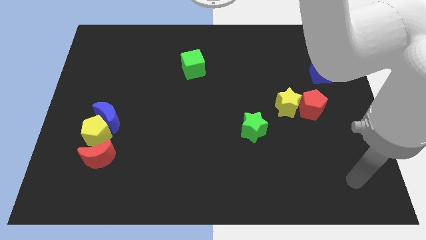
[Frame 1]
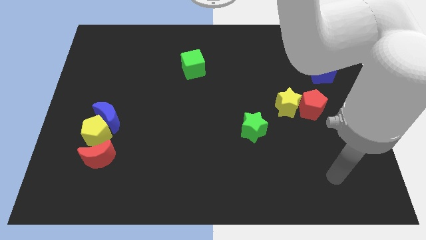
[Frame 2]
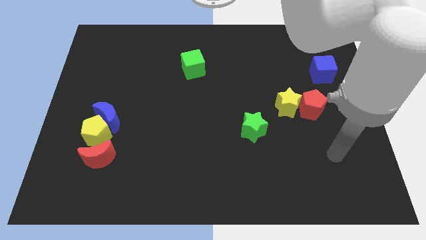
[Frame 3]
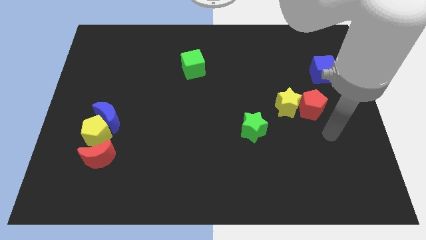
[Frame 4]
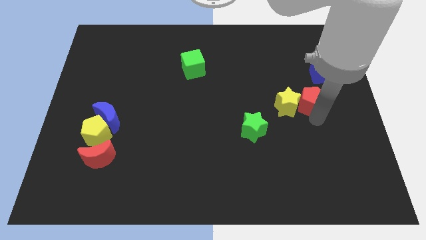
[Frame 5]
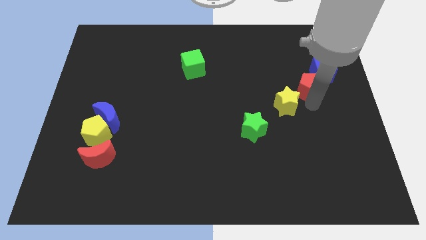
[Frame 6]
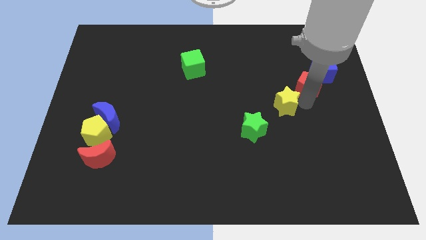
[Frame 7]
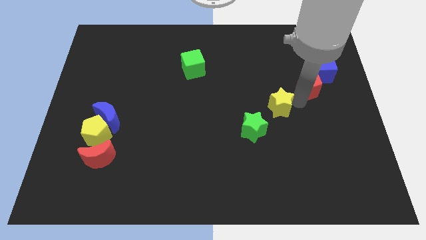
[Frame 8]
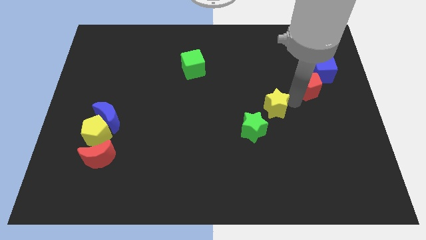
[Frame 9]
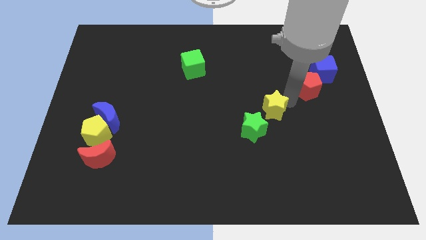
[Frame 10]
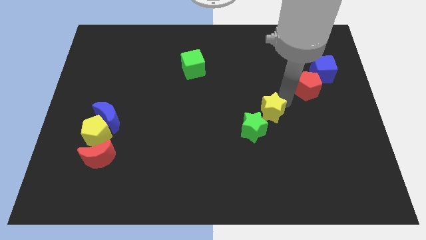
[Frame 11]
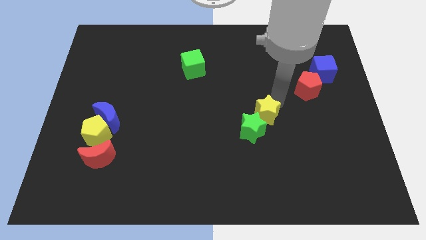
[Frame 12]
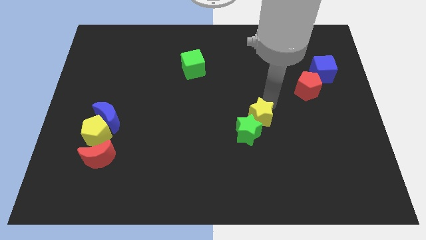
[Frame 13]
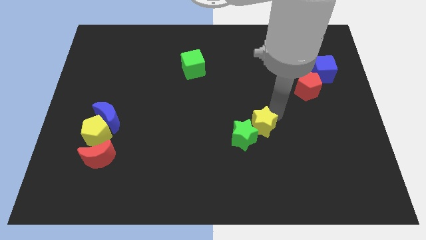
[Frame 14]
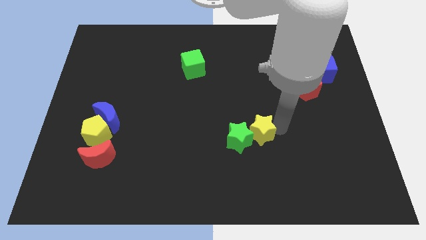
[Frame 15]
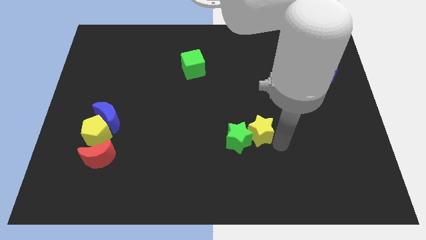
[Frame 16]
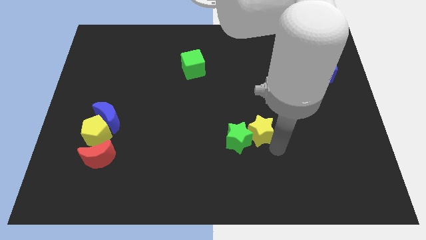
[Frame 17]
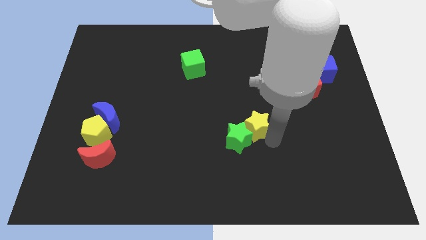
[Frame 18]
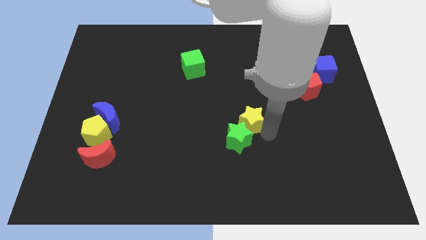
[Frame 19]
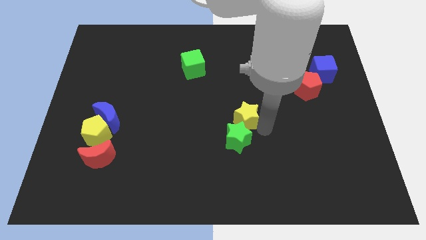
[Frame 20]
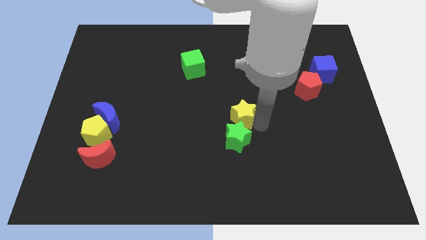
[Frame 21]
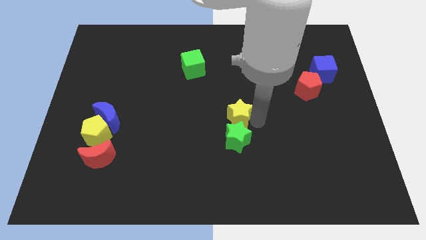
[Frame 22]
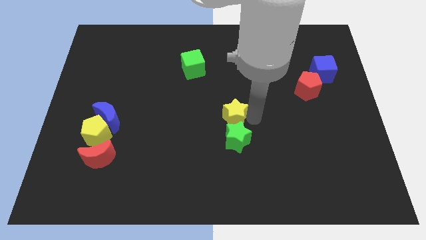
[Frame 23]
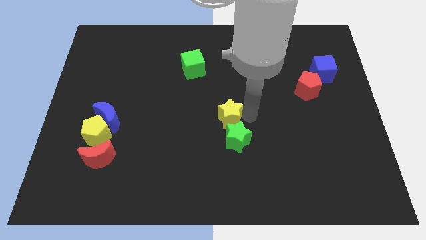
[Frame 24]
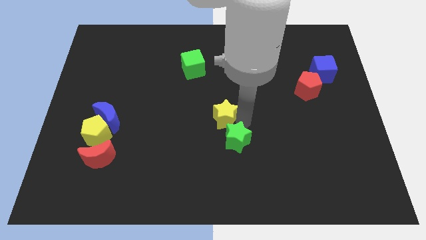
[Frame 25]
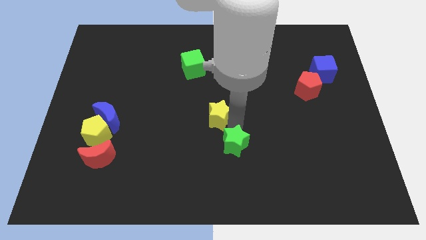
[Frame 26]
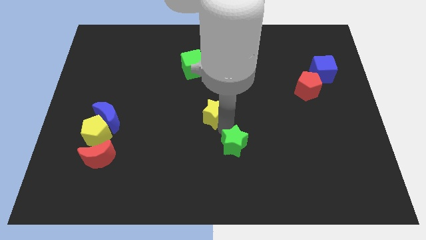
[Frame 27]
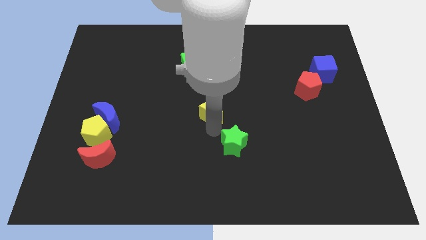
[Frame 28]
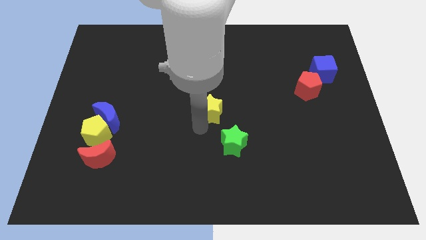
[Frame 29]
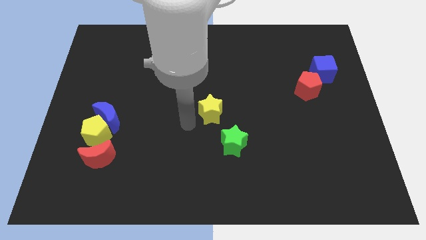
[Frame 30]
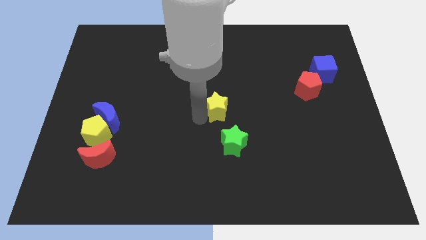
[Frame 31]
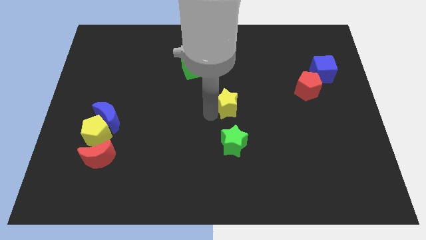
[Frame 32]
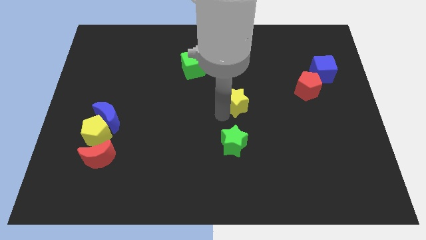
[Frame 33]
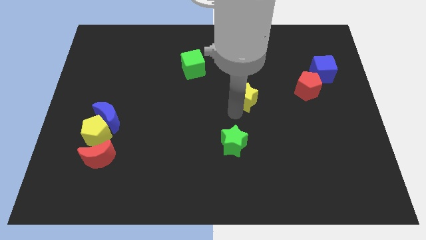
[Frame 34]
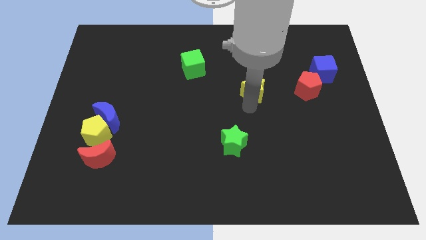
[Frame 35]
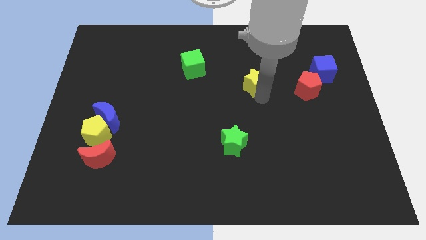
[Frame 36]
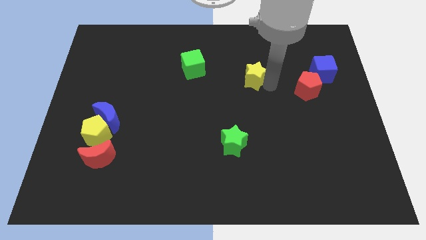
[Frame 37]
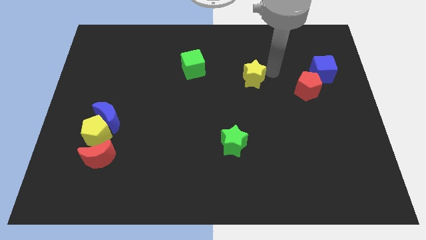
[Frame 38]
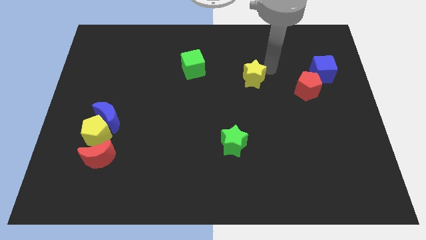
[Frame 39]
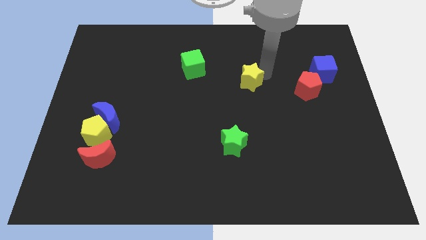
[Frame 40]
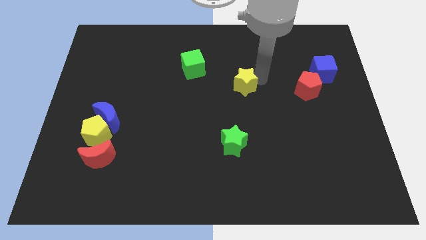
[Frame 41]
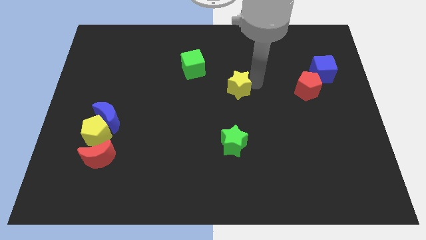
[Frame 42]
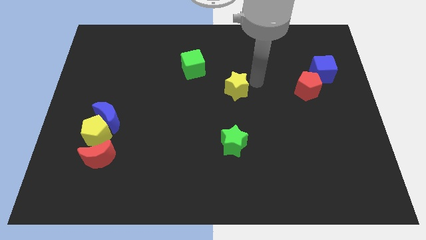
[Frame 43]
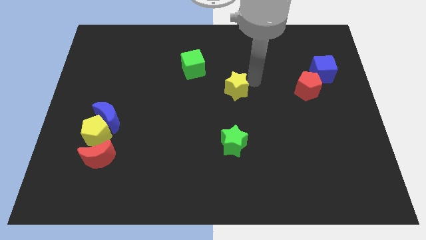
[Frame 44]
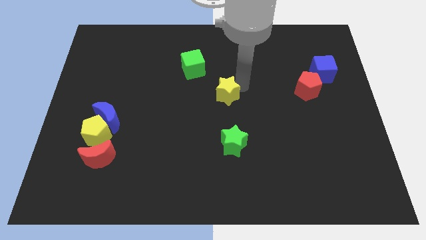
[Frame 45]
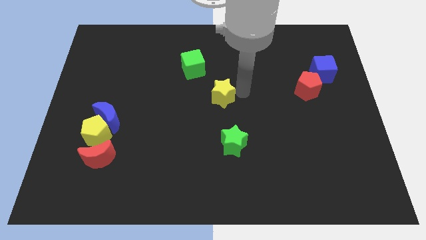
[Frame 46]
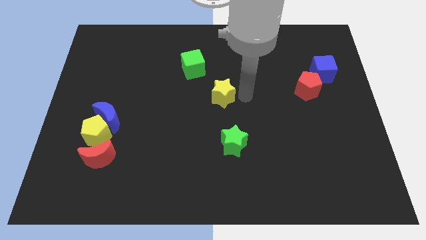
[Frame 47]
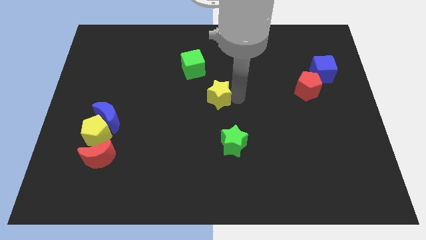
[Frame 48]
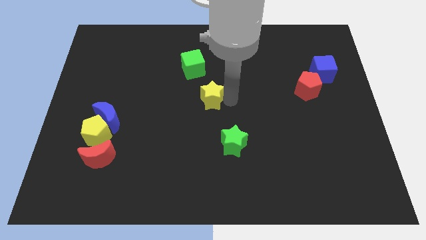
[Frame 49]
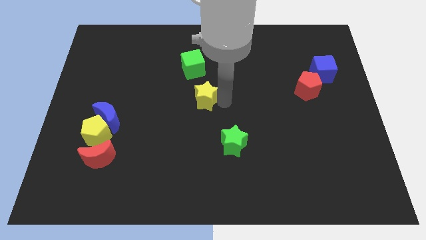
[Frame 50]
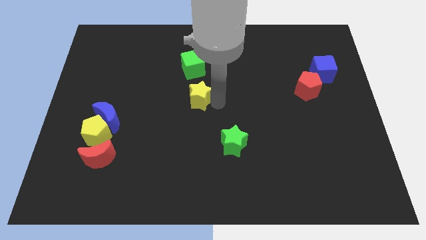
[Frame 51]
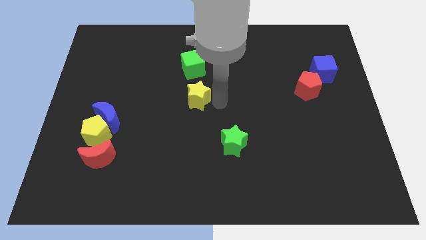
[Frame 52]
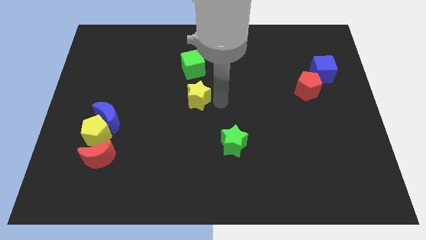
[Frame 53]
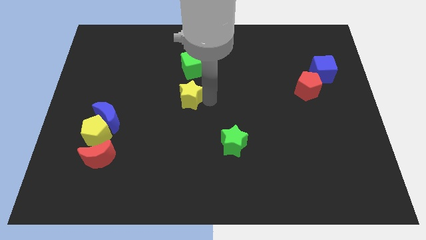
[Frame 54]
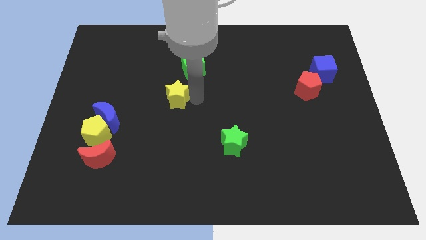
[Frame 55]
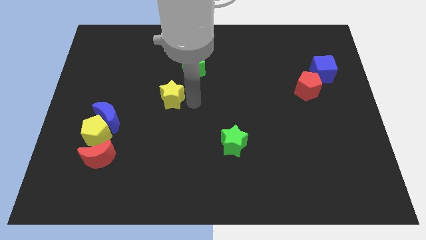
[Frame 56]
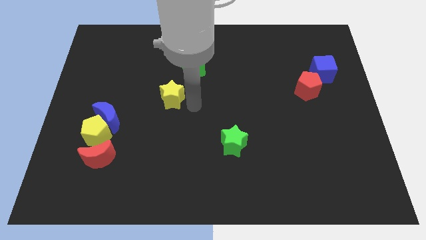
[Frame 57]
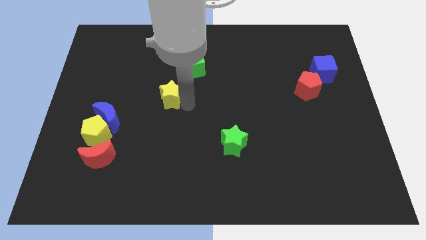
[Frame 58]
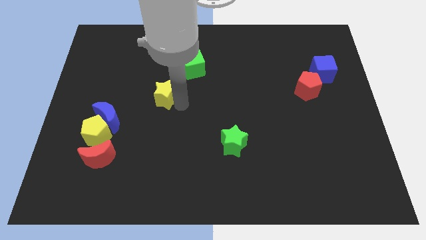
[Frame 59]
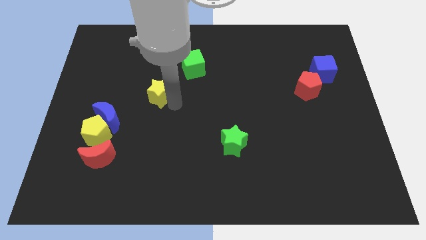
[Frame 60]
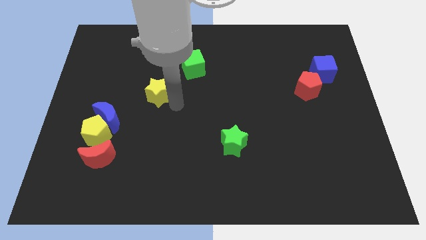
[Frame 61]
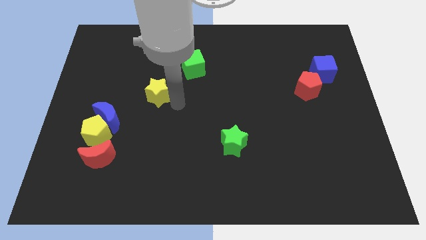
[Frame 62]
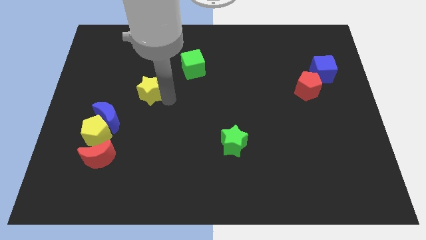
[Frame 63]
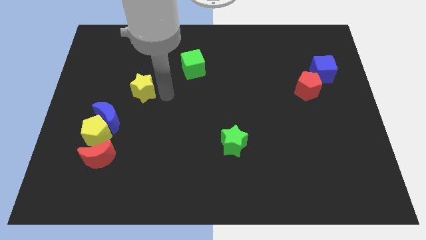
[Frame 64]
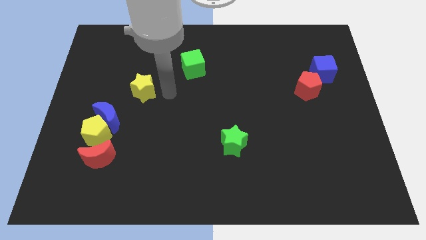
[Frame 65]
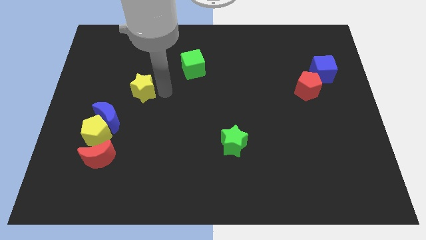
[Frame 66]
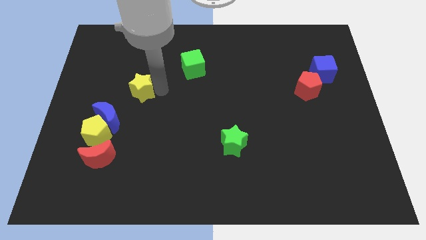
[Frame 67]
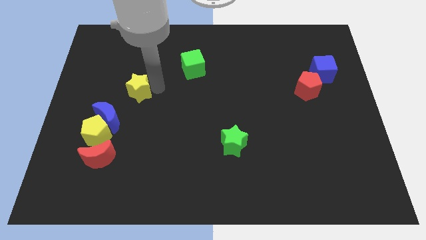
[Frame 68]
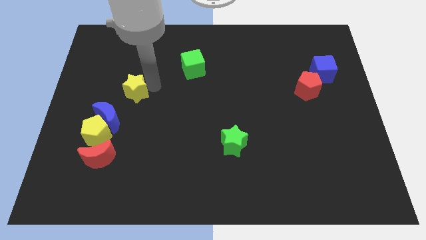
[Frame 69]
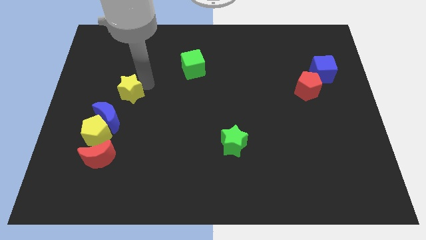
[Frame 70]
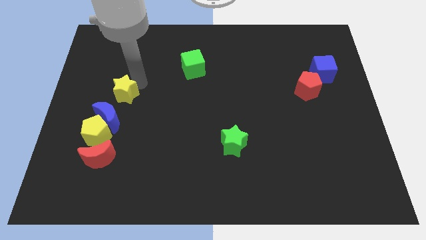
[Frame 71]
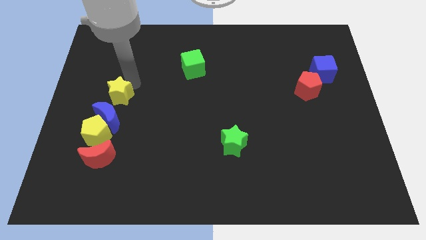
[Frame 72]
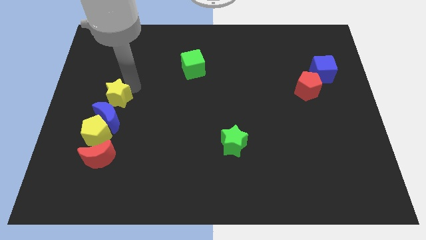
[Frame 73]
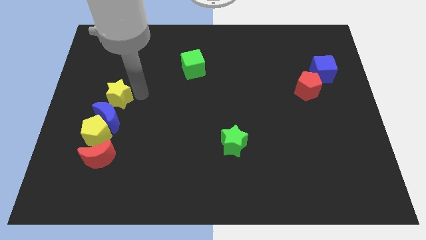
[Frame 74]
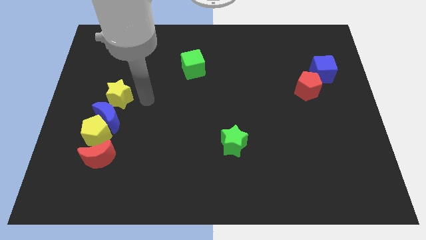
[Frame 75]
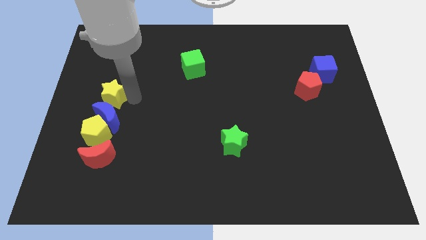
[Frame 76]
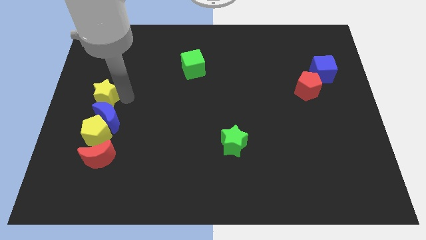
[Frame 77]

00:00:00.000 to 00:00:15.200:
push the yellow star to the left side

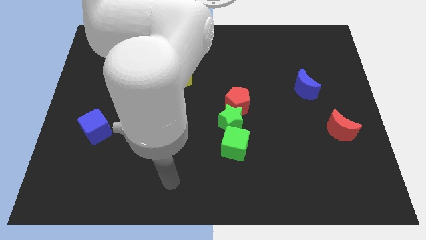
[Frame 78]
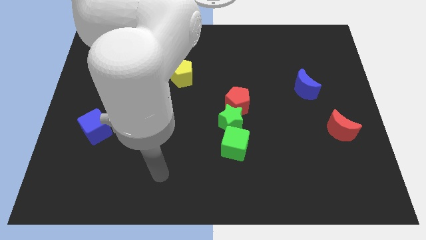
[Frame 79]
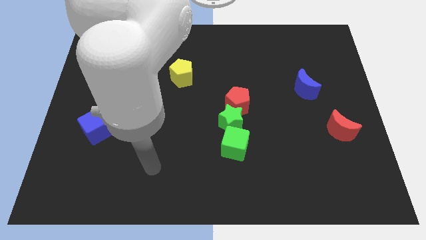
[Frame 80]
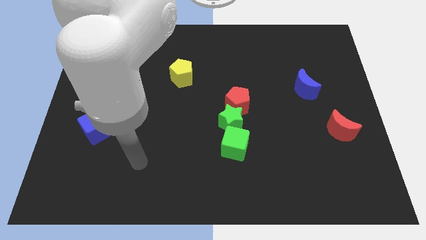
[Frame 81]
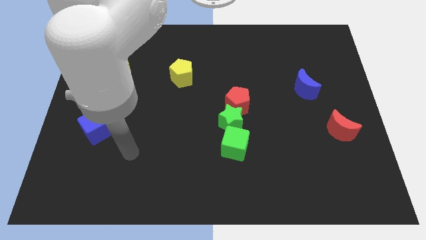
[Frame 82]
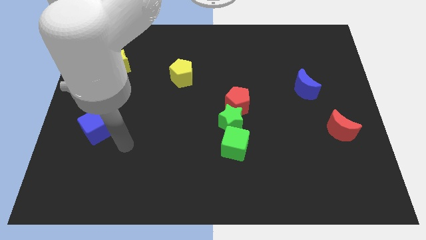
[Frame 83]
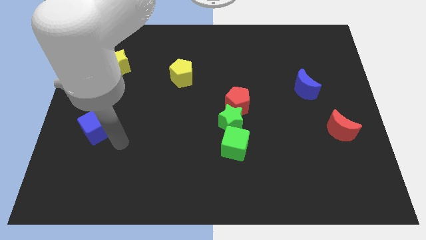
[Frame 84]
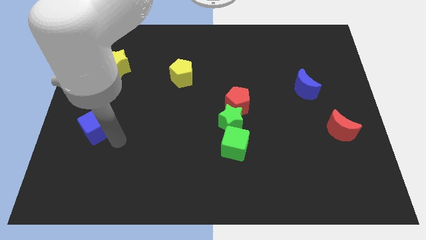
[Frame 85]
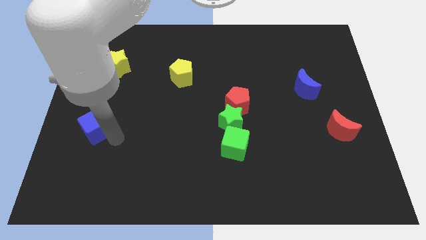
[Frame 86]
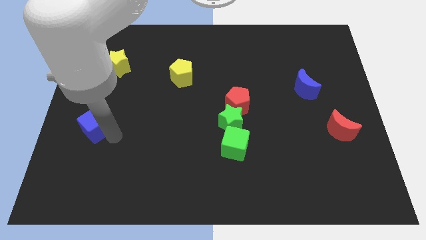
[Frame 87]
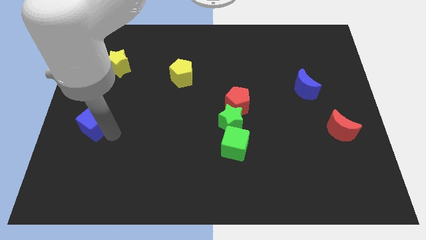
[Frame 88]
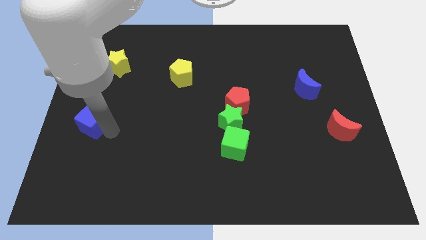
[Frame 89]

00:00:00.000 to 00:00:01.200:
slide the blue cube to the center left
